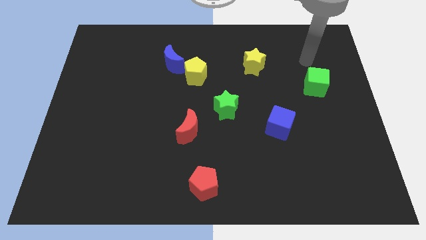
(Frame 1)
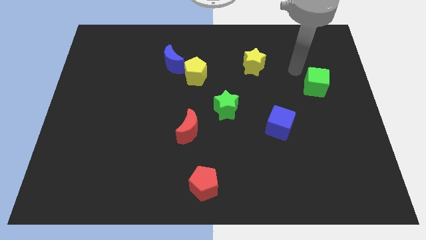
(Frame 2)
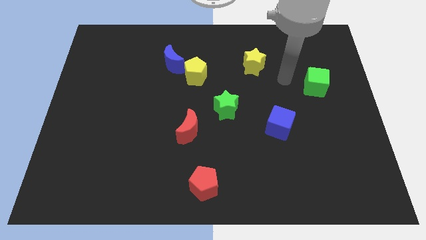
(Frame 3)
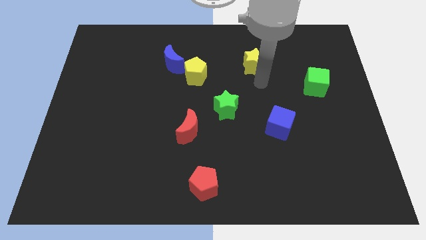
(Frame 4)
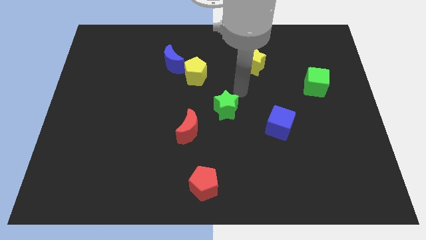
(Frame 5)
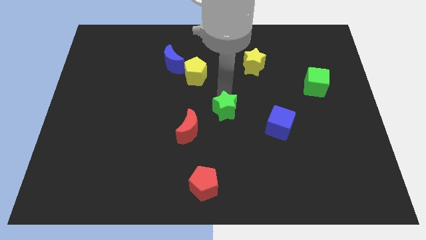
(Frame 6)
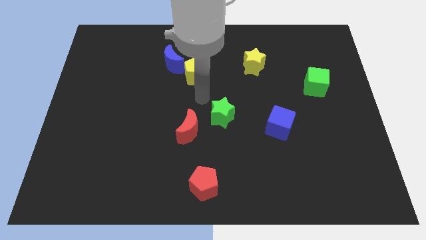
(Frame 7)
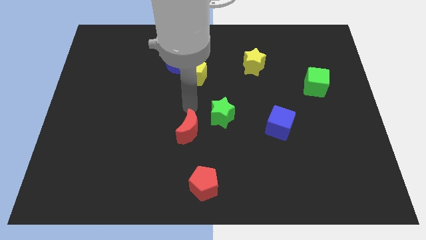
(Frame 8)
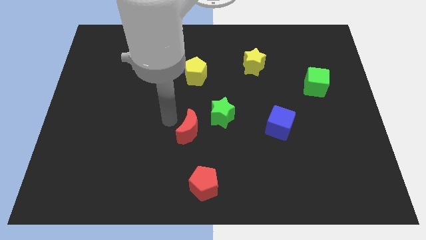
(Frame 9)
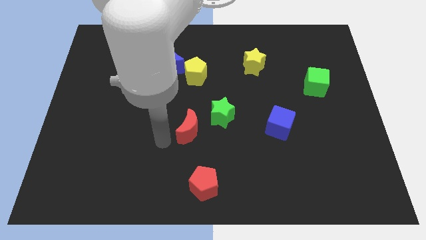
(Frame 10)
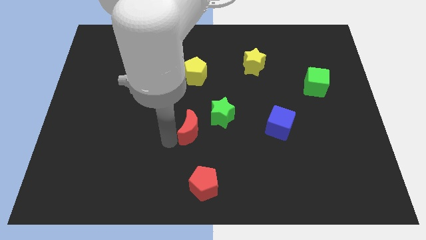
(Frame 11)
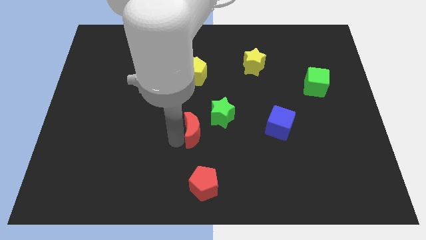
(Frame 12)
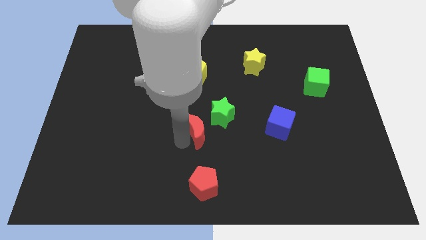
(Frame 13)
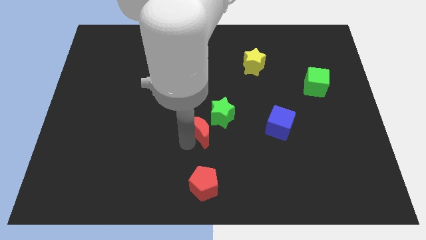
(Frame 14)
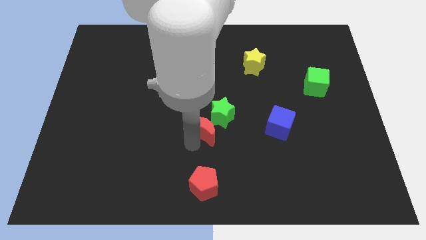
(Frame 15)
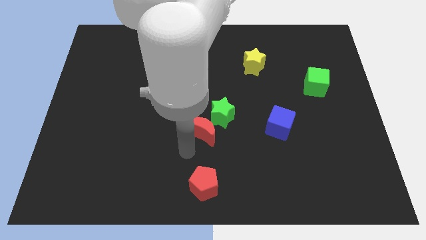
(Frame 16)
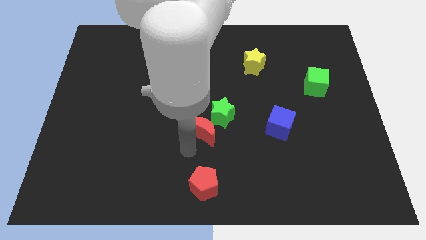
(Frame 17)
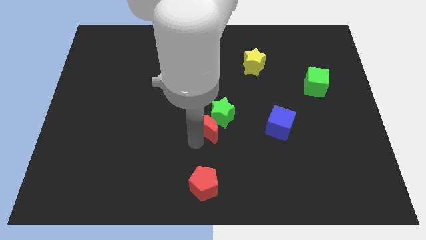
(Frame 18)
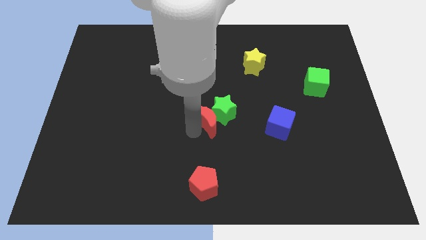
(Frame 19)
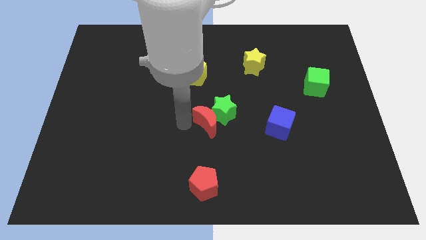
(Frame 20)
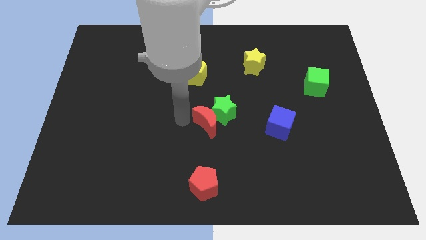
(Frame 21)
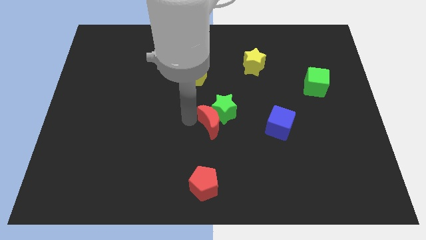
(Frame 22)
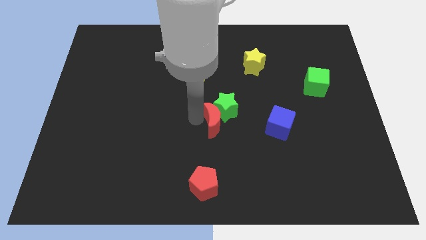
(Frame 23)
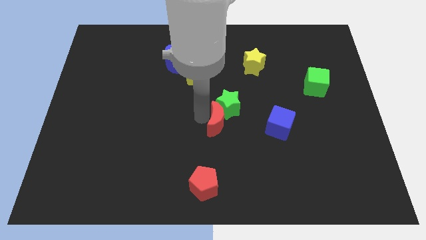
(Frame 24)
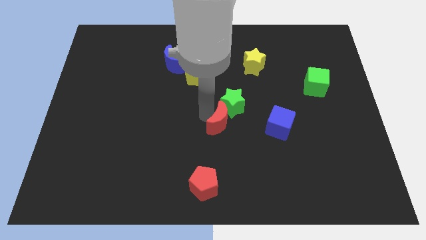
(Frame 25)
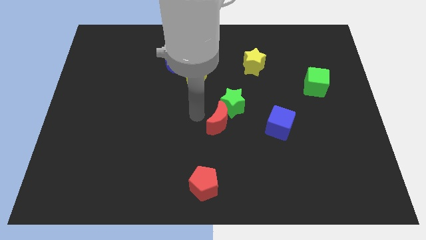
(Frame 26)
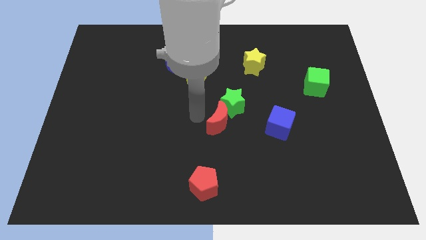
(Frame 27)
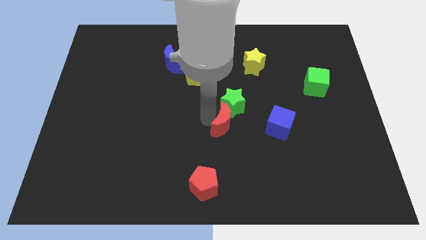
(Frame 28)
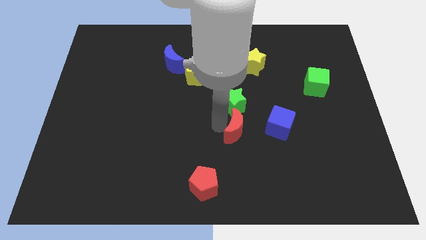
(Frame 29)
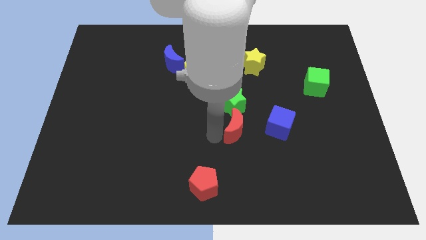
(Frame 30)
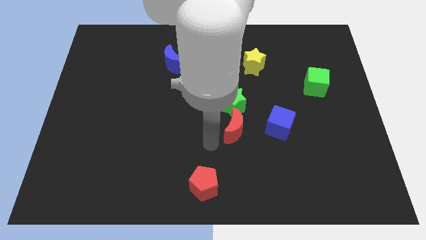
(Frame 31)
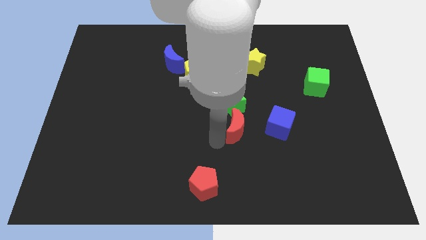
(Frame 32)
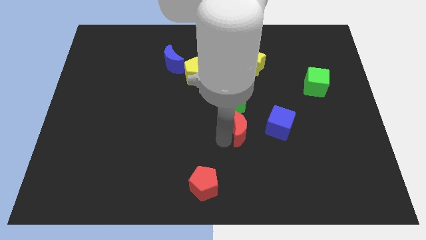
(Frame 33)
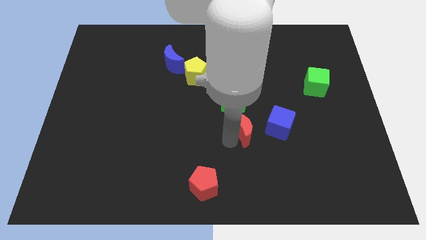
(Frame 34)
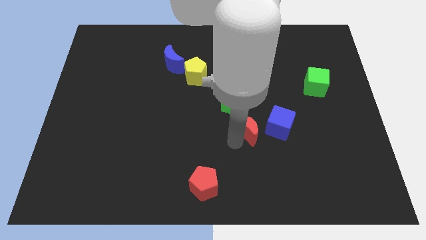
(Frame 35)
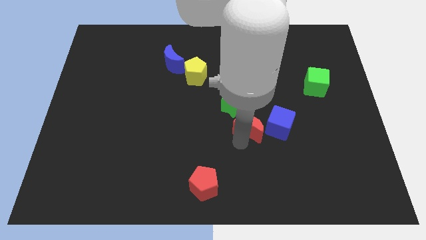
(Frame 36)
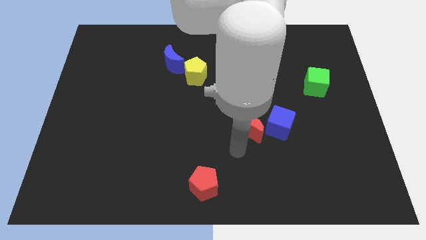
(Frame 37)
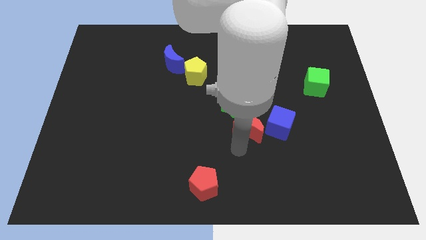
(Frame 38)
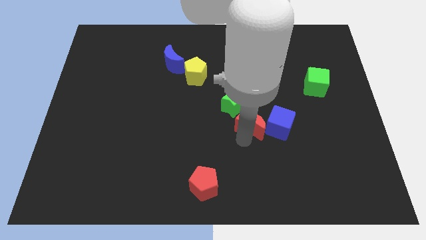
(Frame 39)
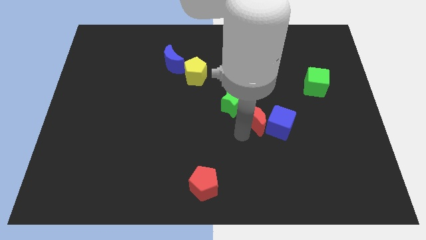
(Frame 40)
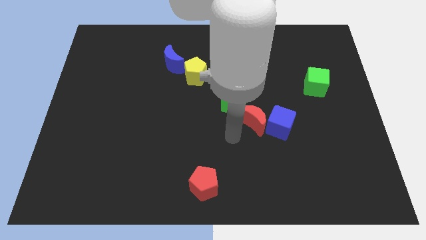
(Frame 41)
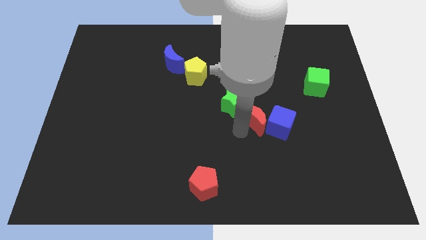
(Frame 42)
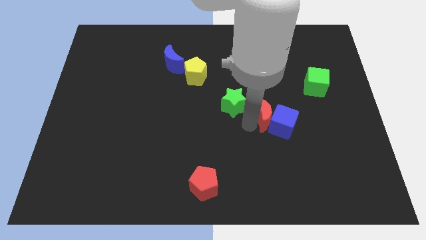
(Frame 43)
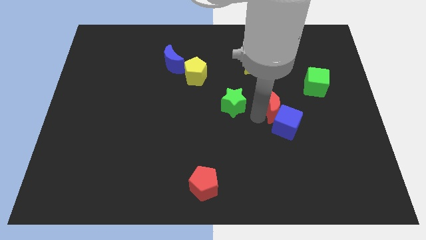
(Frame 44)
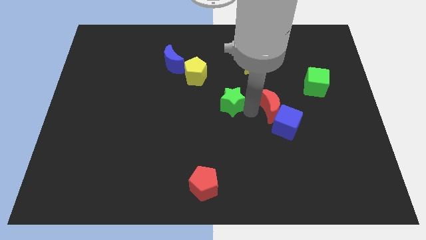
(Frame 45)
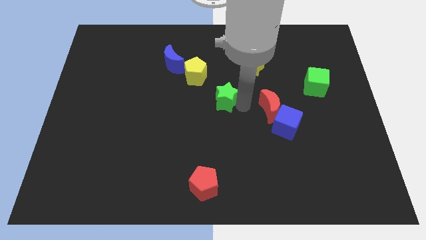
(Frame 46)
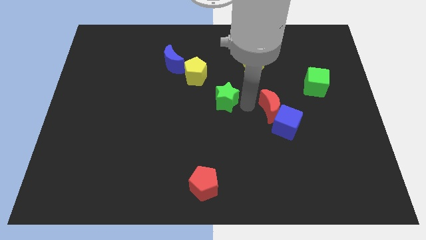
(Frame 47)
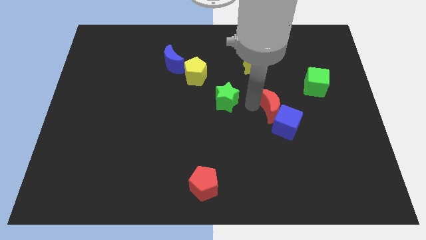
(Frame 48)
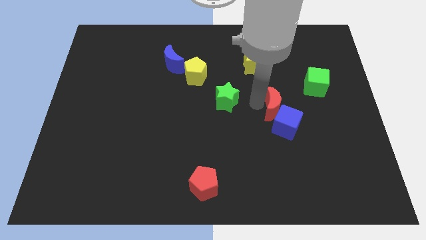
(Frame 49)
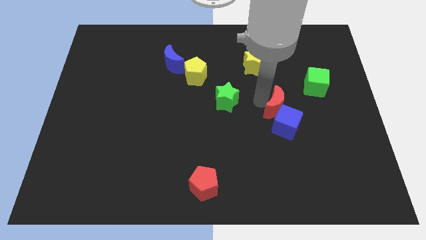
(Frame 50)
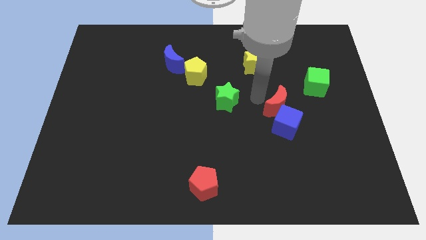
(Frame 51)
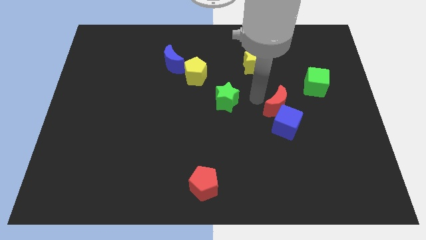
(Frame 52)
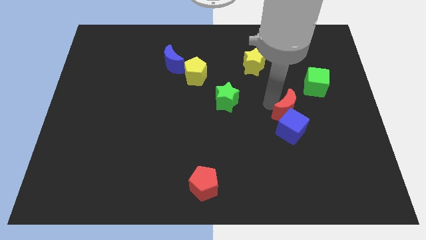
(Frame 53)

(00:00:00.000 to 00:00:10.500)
slide the red moon right

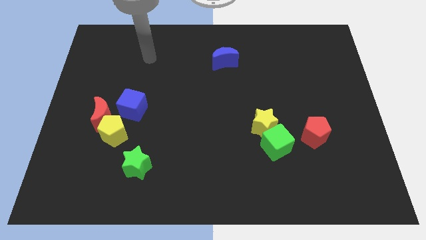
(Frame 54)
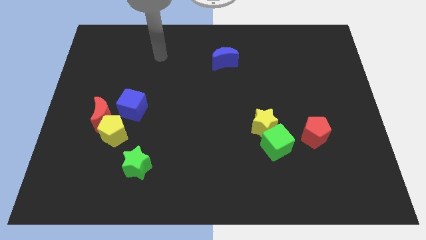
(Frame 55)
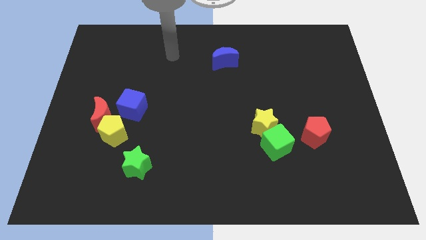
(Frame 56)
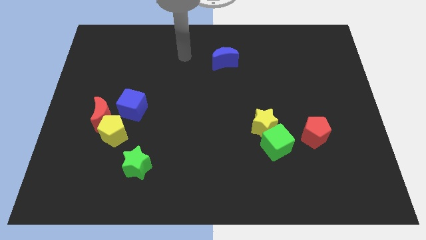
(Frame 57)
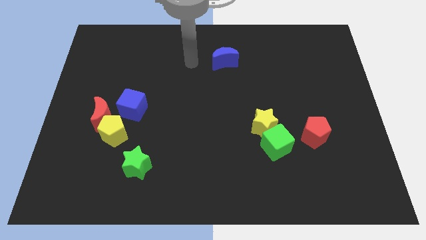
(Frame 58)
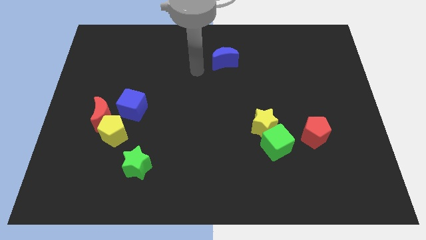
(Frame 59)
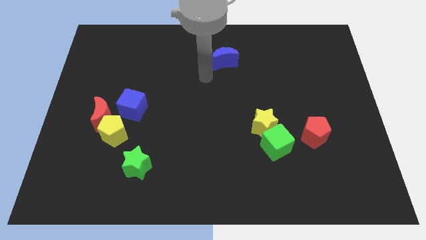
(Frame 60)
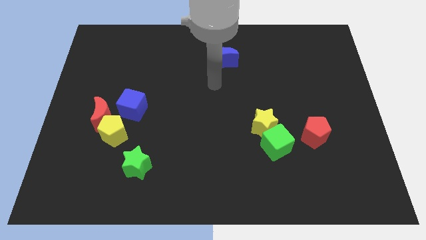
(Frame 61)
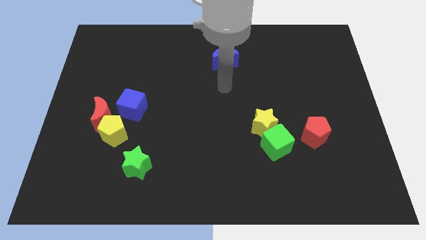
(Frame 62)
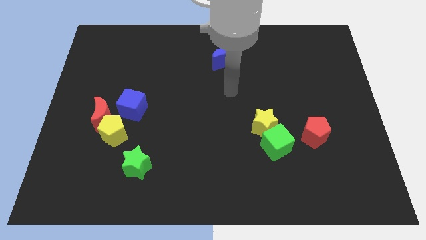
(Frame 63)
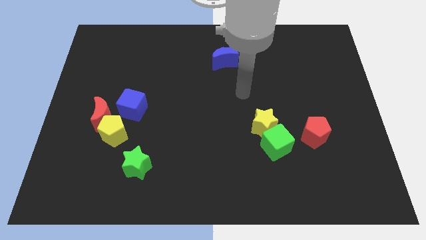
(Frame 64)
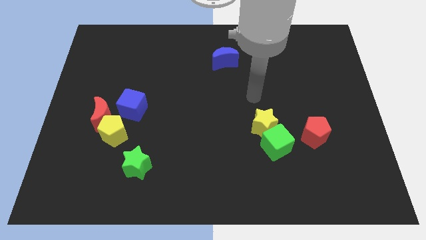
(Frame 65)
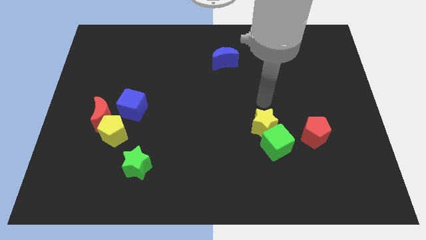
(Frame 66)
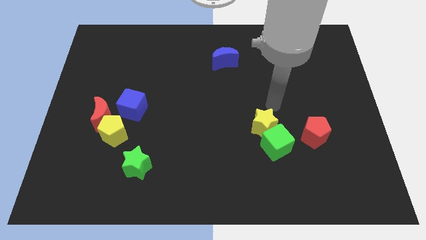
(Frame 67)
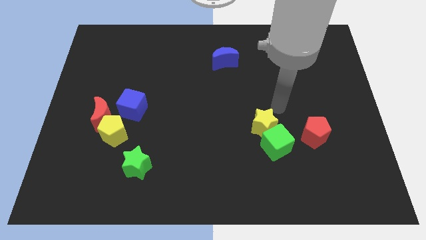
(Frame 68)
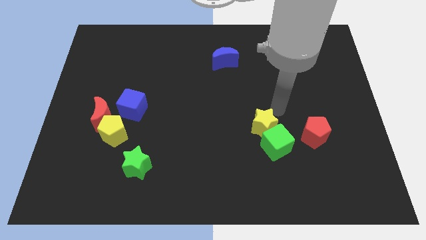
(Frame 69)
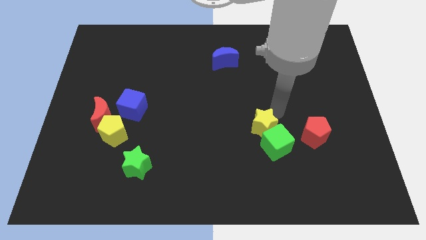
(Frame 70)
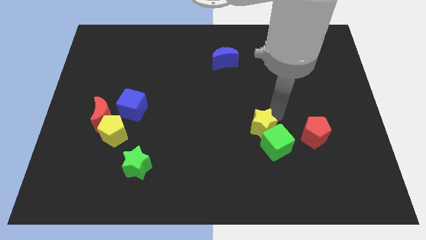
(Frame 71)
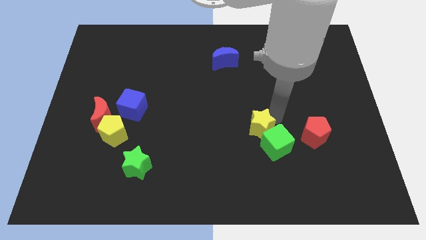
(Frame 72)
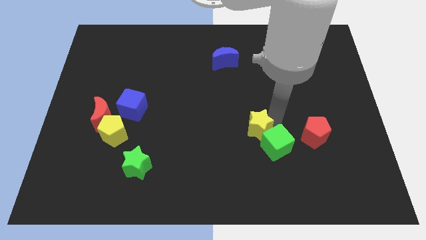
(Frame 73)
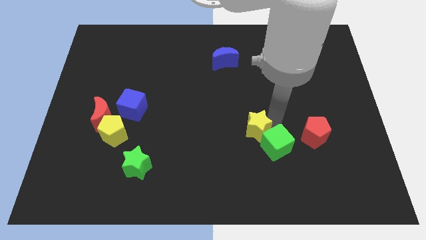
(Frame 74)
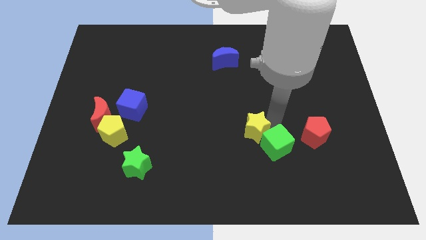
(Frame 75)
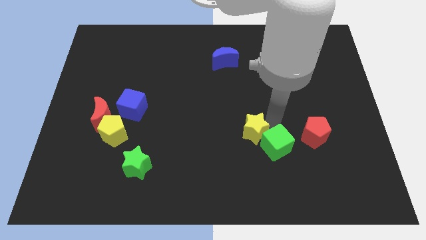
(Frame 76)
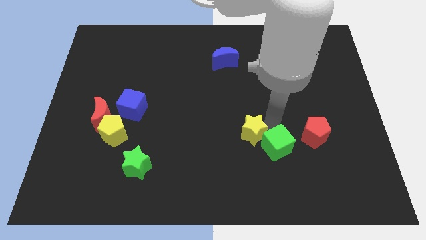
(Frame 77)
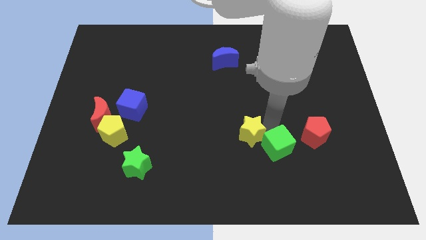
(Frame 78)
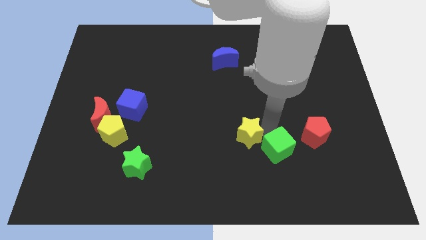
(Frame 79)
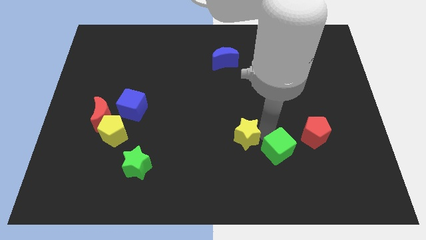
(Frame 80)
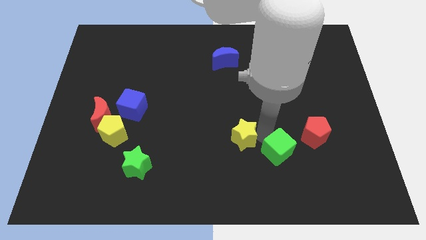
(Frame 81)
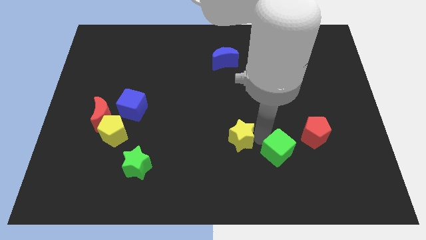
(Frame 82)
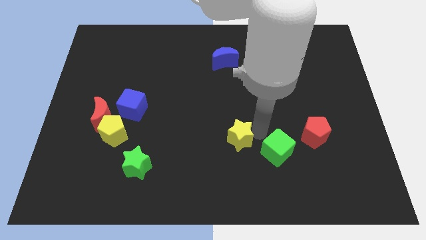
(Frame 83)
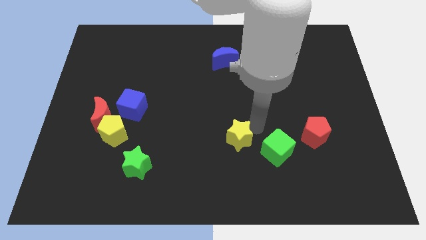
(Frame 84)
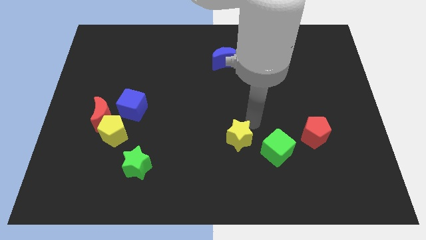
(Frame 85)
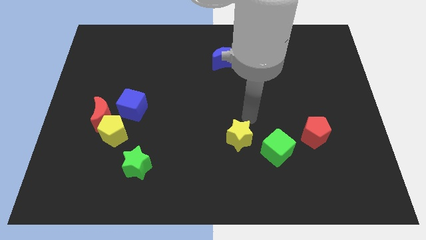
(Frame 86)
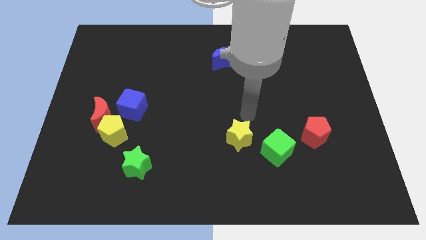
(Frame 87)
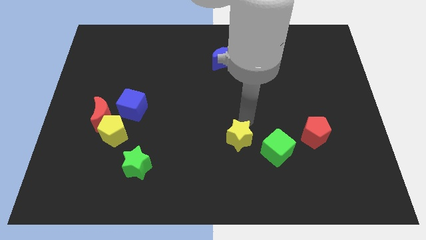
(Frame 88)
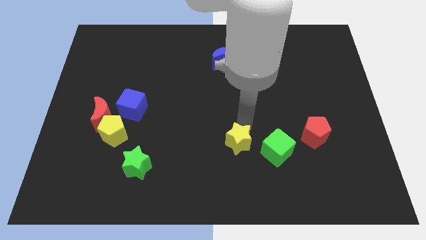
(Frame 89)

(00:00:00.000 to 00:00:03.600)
push the yellow star downwards and to the left slightly
